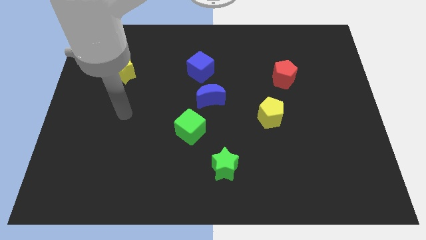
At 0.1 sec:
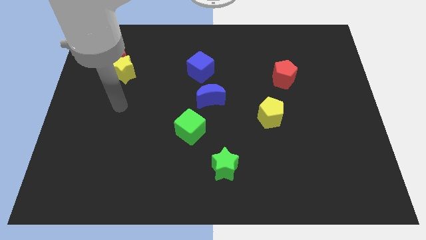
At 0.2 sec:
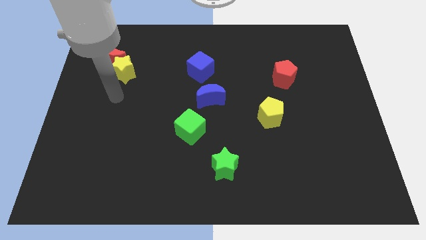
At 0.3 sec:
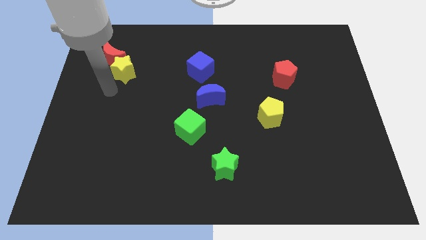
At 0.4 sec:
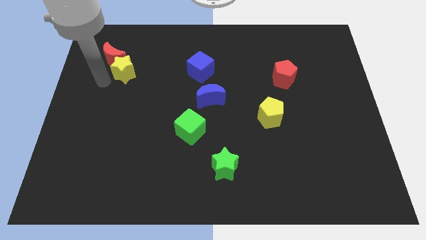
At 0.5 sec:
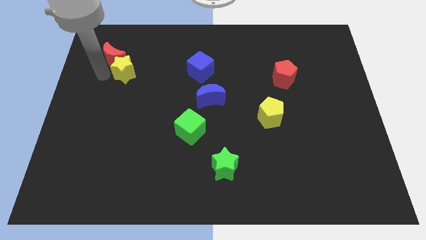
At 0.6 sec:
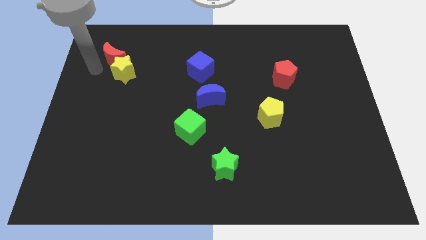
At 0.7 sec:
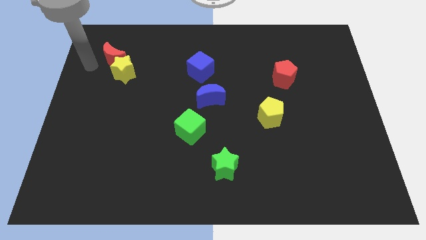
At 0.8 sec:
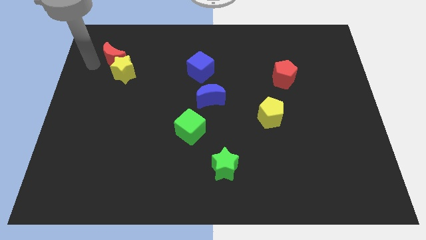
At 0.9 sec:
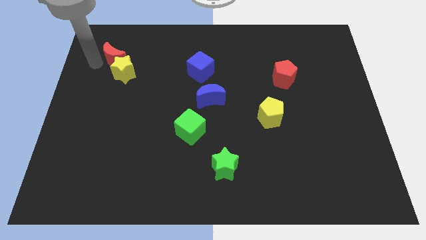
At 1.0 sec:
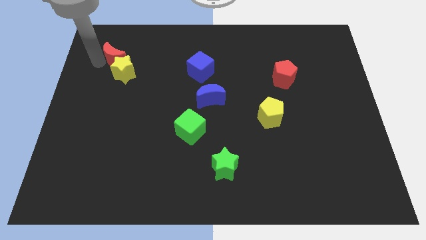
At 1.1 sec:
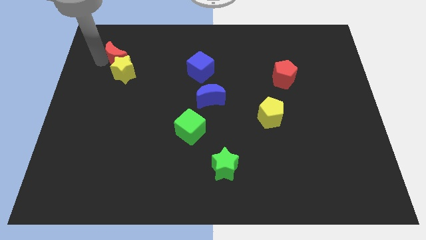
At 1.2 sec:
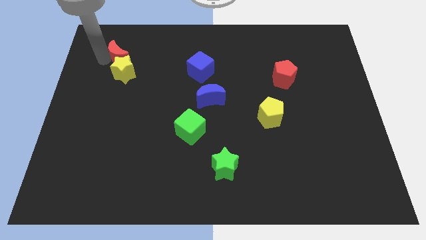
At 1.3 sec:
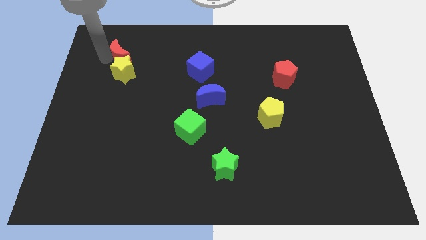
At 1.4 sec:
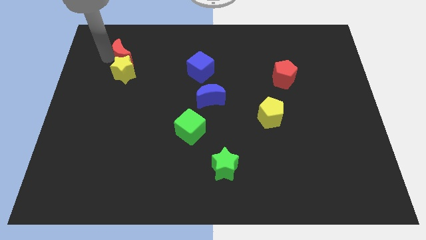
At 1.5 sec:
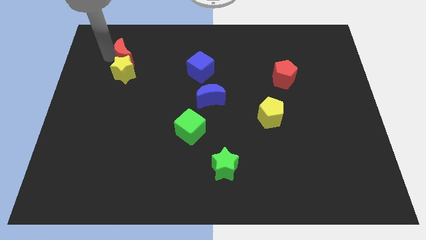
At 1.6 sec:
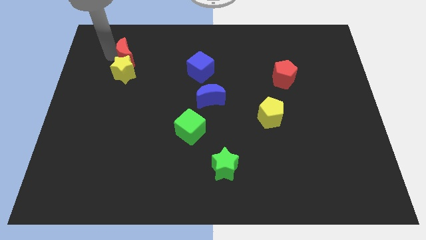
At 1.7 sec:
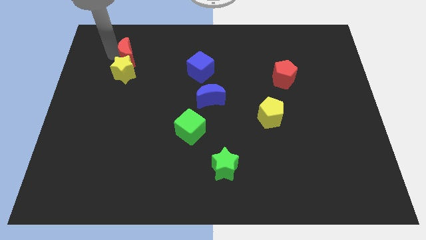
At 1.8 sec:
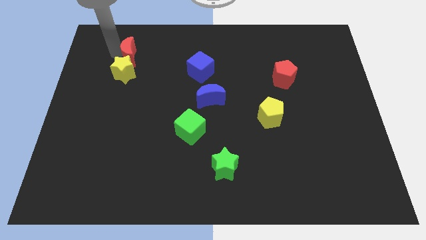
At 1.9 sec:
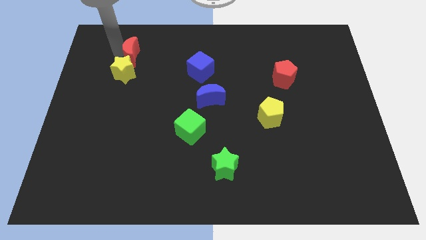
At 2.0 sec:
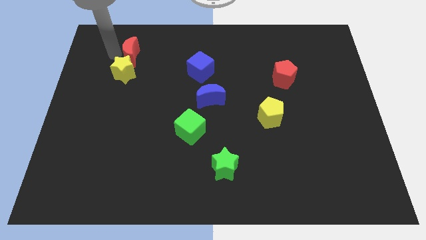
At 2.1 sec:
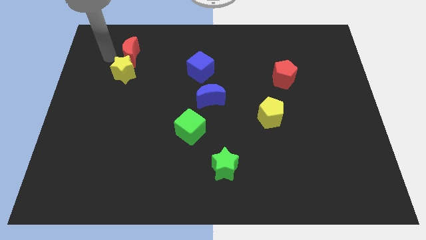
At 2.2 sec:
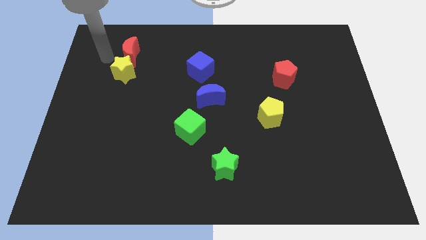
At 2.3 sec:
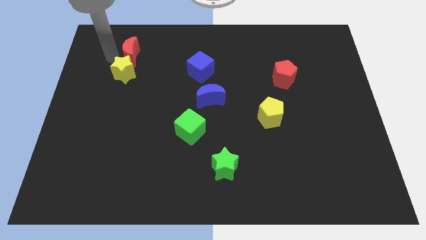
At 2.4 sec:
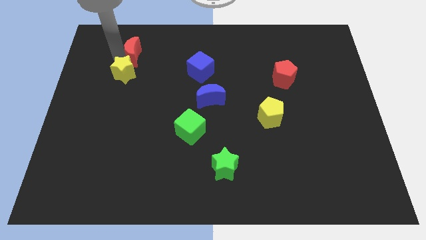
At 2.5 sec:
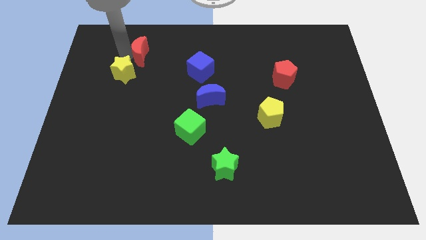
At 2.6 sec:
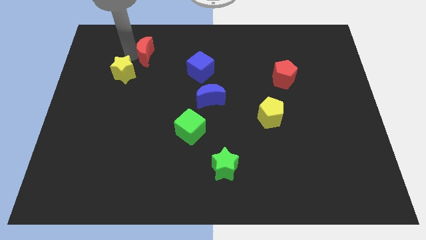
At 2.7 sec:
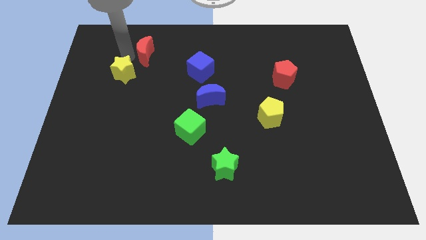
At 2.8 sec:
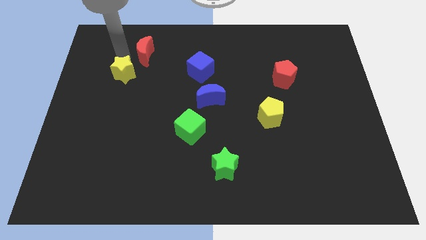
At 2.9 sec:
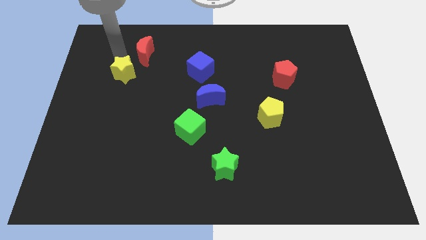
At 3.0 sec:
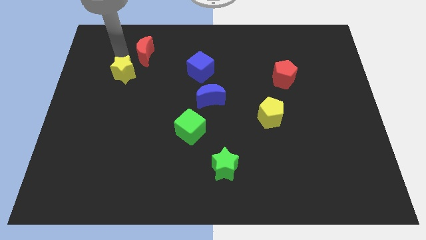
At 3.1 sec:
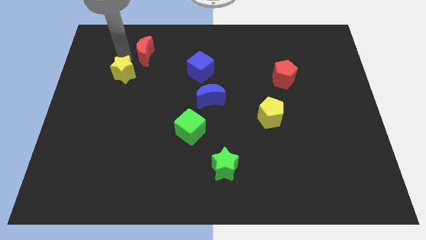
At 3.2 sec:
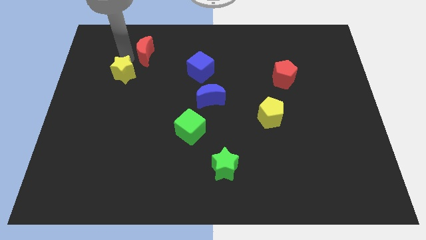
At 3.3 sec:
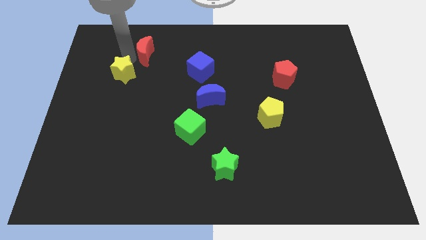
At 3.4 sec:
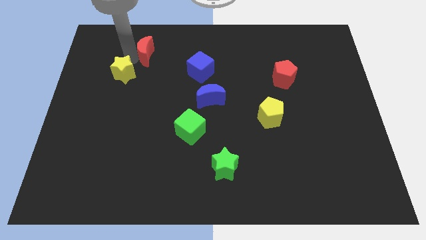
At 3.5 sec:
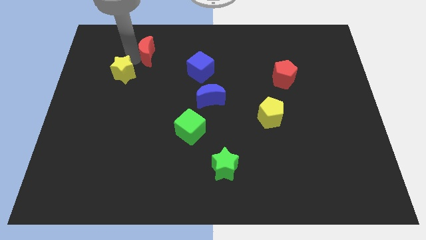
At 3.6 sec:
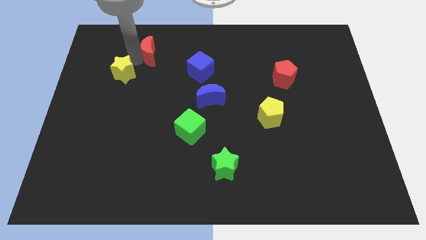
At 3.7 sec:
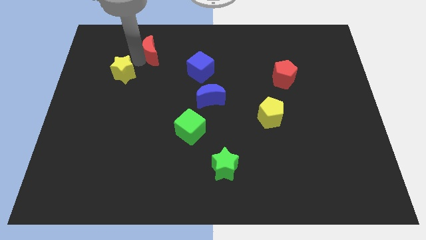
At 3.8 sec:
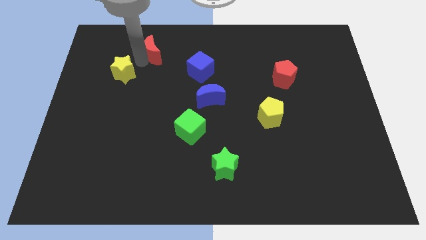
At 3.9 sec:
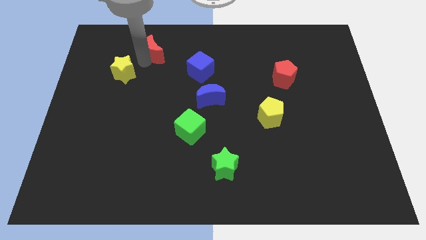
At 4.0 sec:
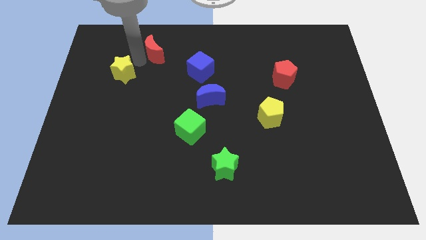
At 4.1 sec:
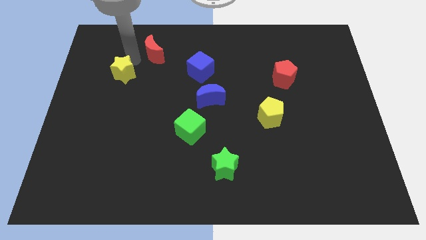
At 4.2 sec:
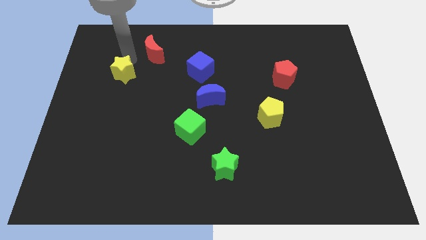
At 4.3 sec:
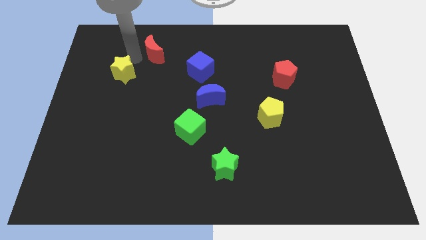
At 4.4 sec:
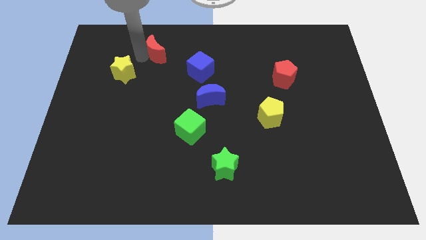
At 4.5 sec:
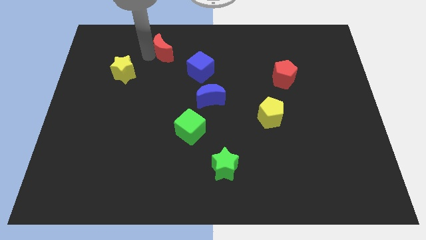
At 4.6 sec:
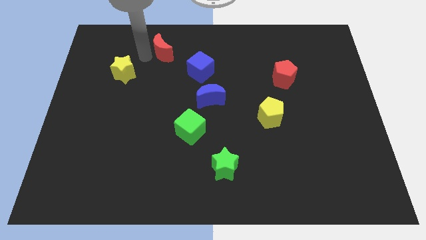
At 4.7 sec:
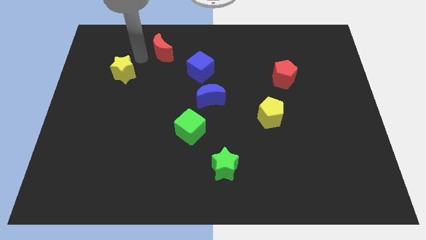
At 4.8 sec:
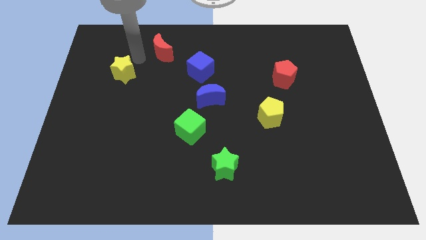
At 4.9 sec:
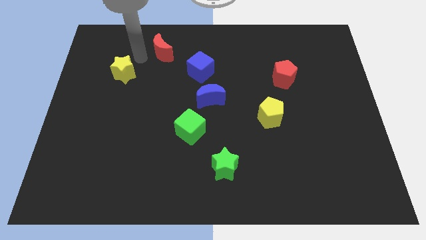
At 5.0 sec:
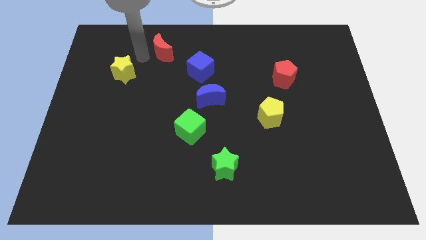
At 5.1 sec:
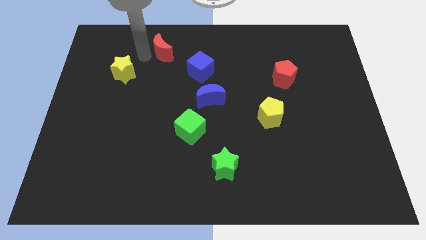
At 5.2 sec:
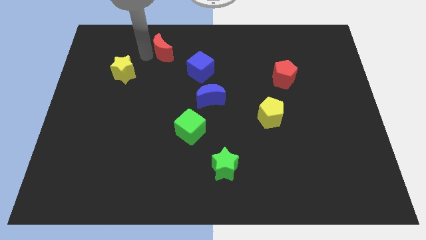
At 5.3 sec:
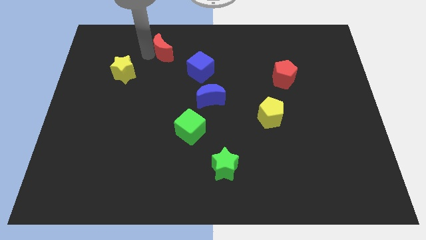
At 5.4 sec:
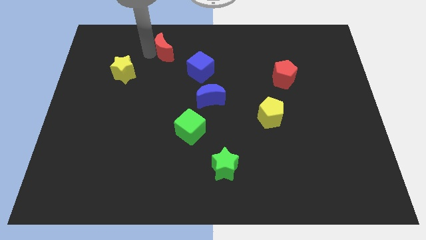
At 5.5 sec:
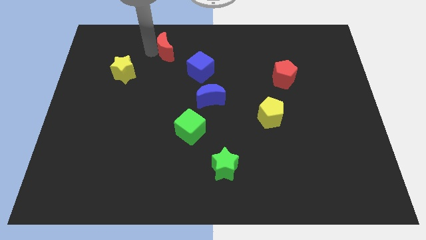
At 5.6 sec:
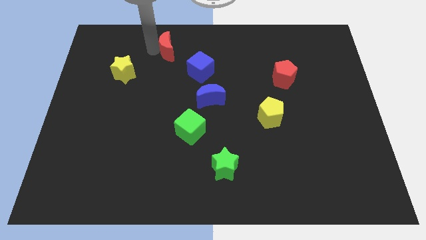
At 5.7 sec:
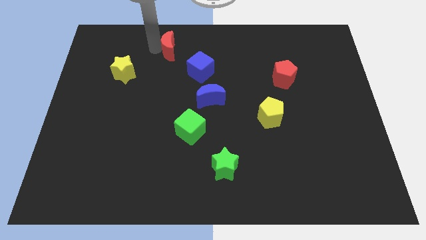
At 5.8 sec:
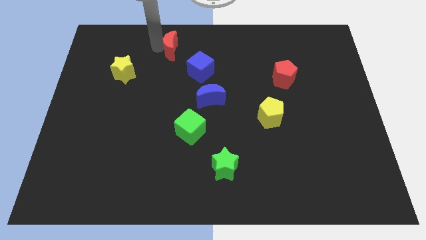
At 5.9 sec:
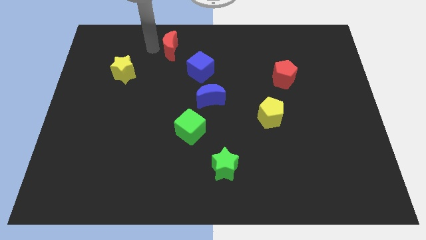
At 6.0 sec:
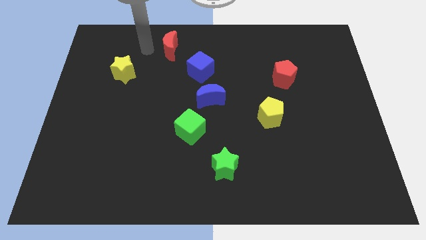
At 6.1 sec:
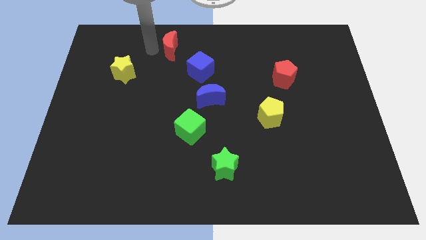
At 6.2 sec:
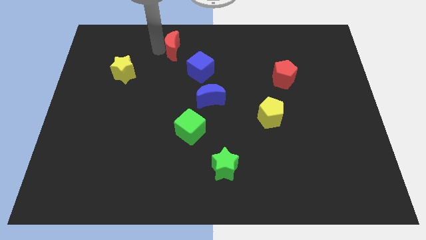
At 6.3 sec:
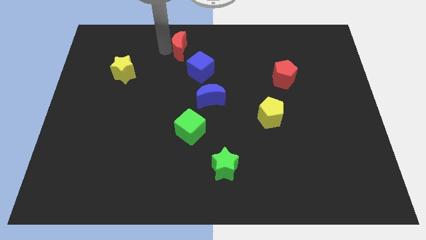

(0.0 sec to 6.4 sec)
push the red moon to the top side

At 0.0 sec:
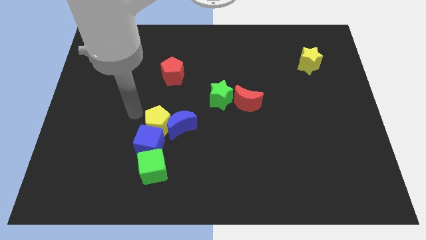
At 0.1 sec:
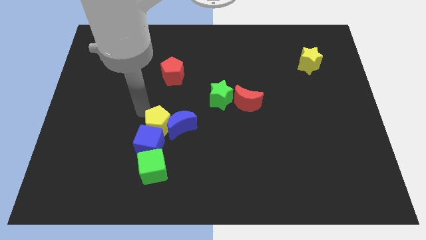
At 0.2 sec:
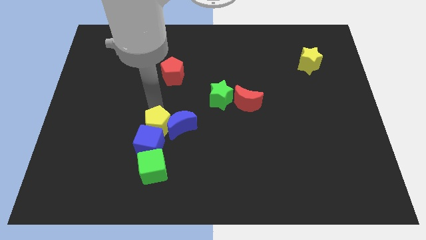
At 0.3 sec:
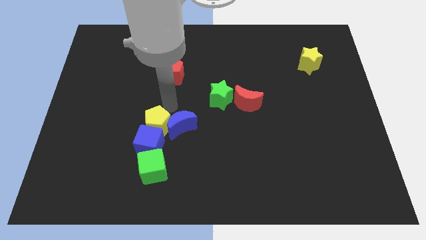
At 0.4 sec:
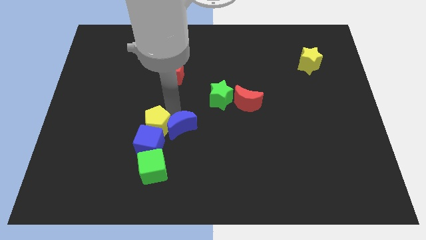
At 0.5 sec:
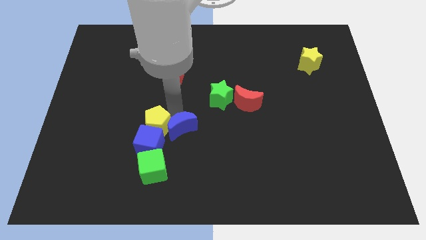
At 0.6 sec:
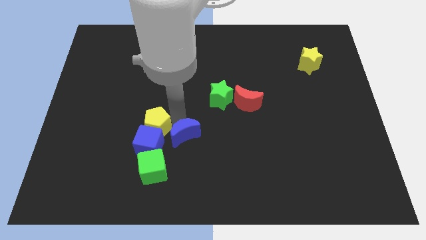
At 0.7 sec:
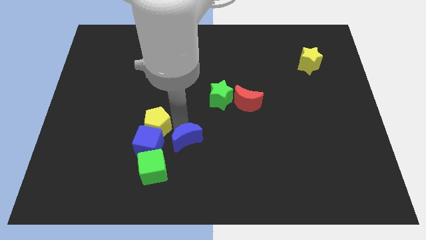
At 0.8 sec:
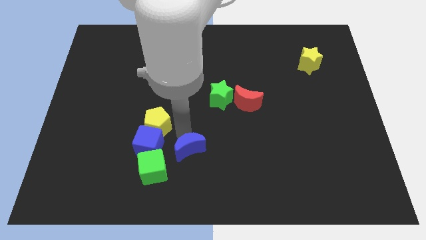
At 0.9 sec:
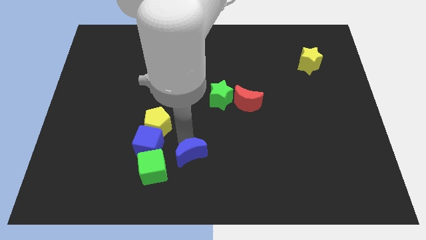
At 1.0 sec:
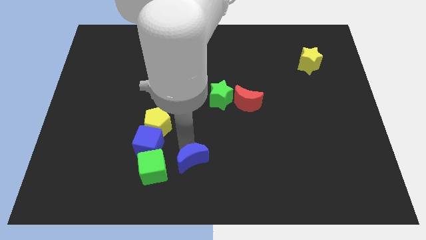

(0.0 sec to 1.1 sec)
slide the blue moon to the bottom
